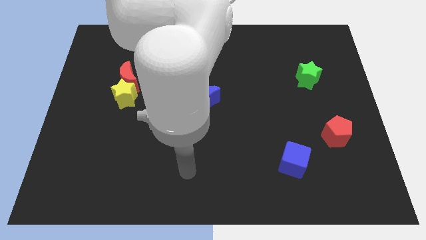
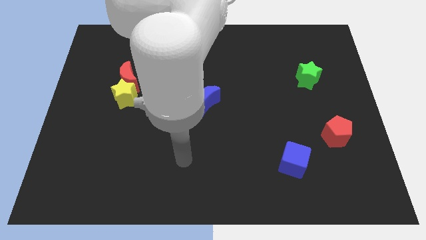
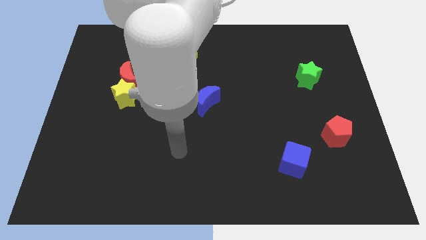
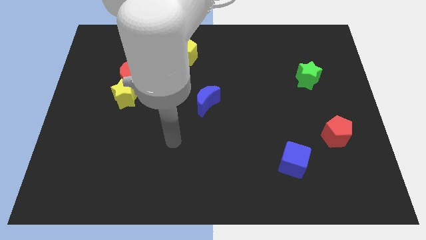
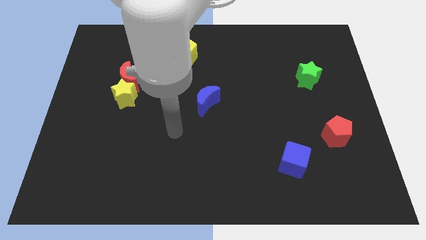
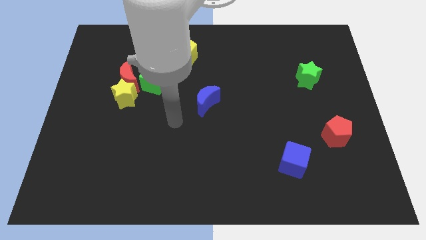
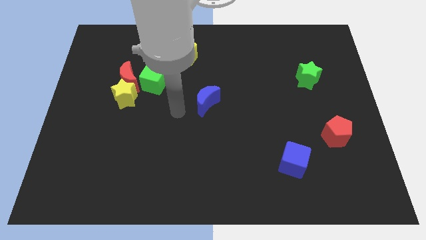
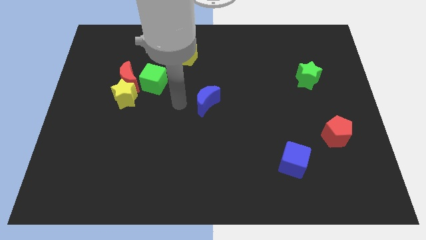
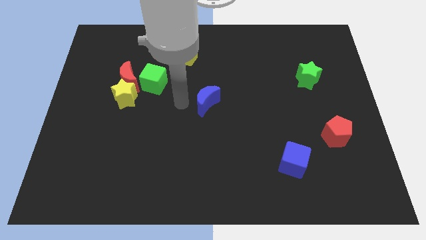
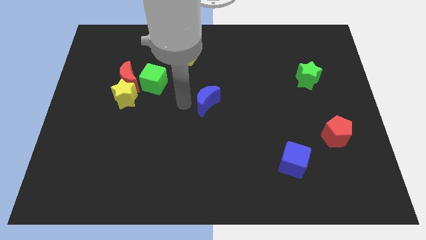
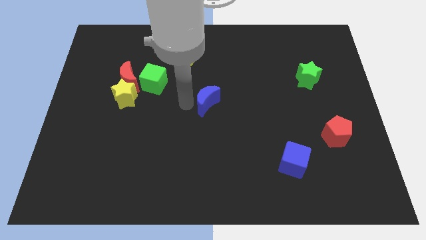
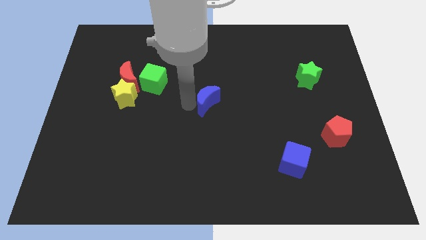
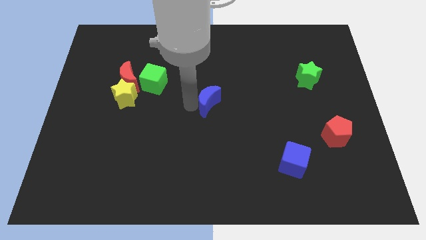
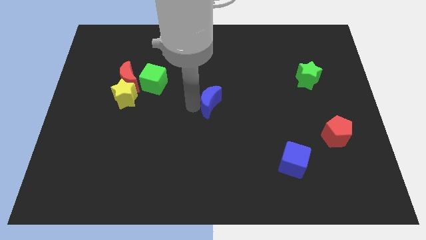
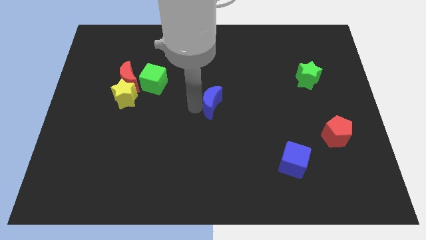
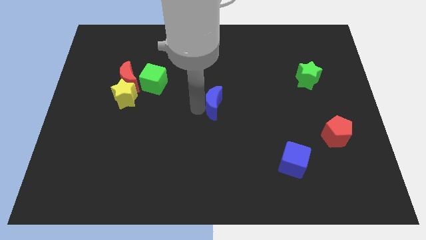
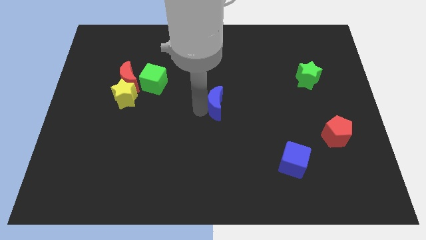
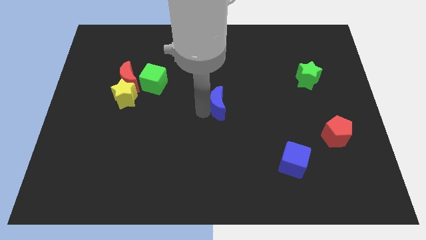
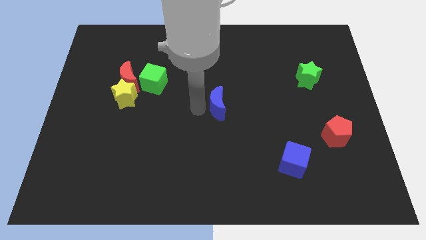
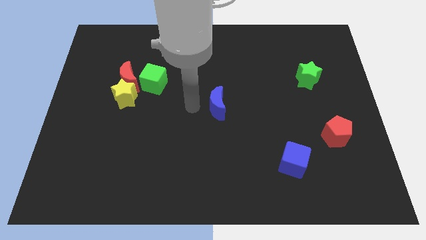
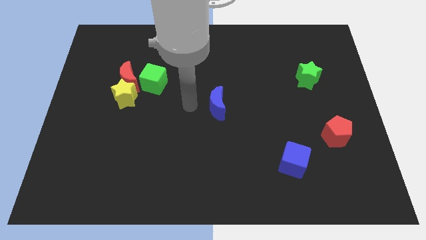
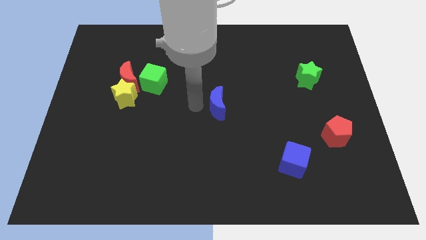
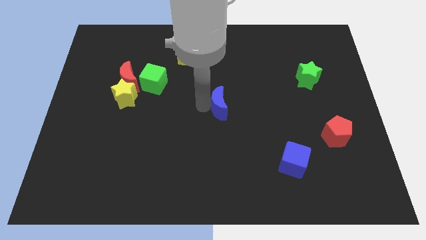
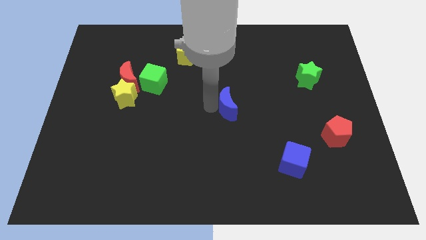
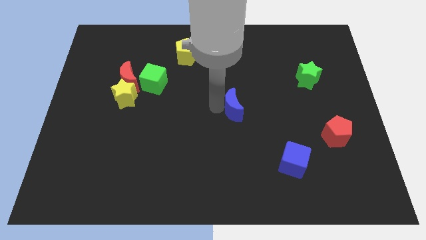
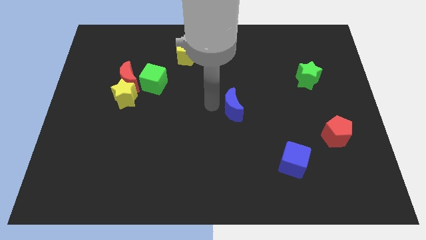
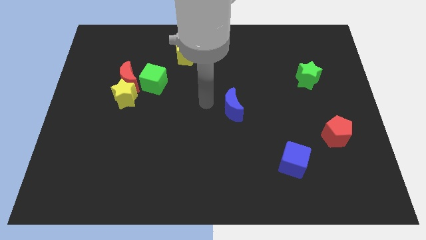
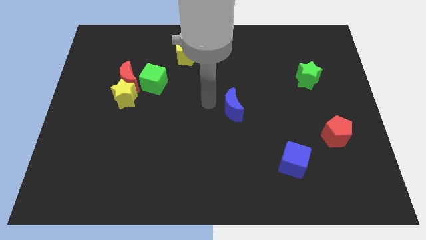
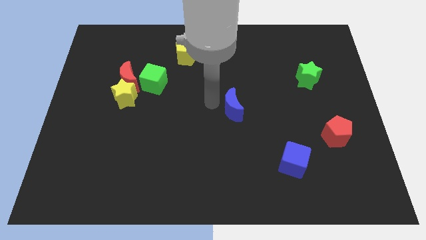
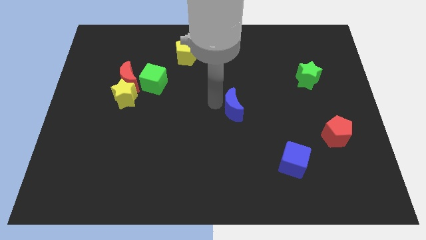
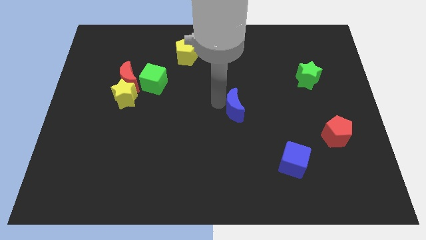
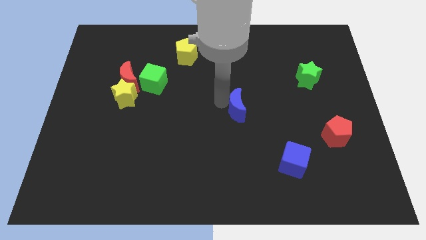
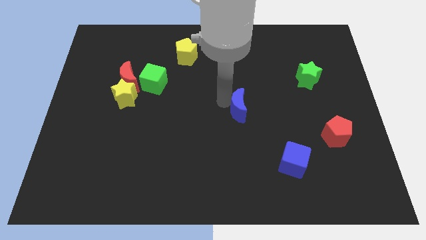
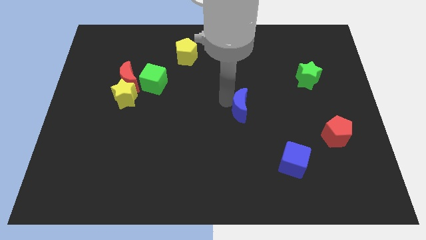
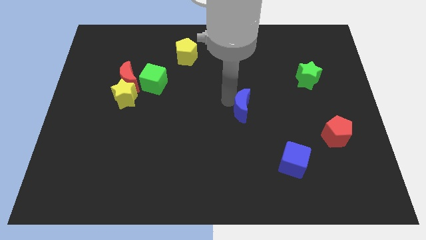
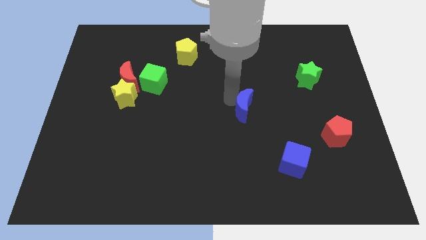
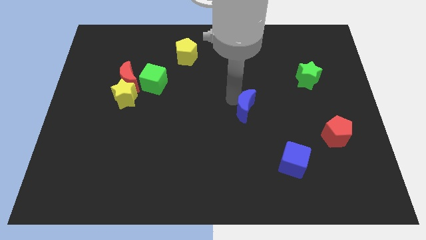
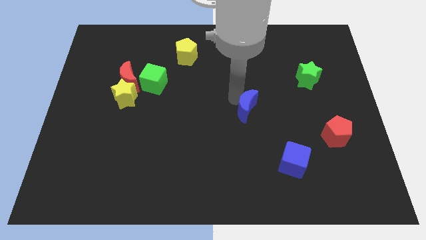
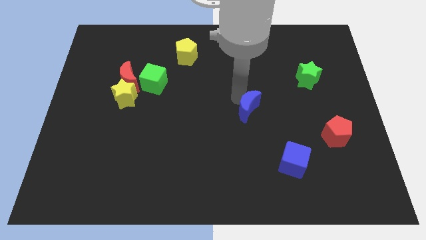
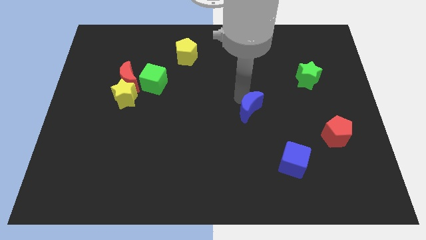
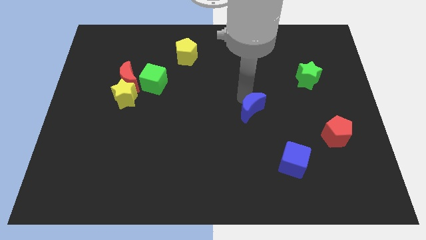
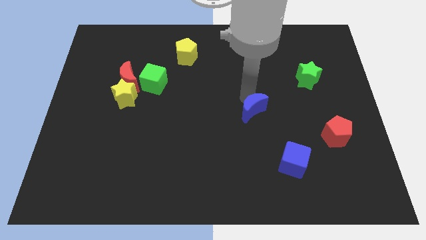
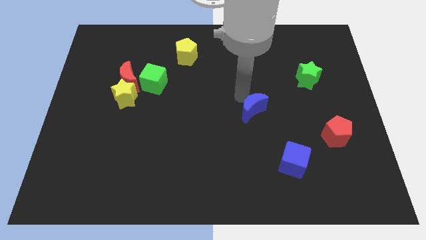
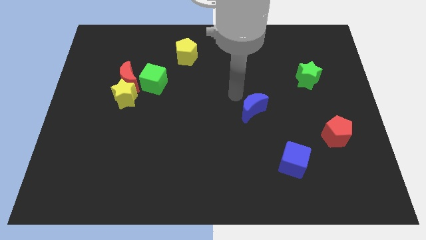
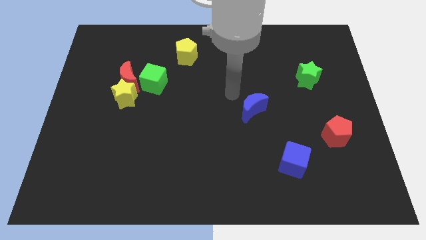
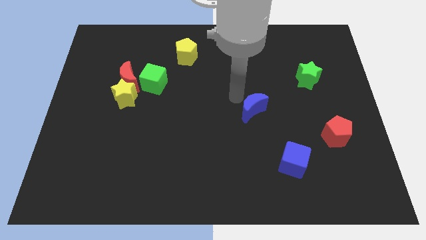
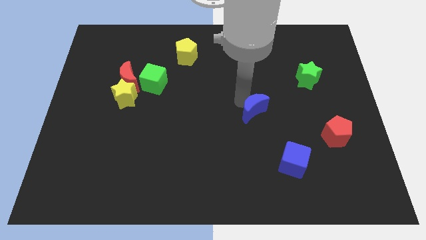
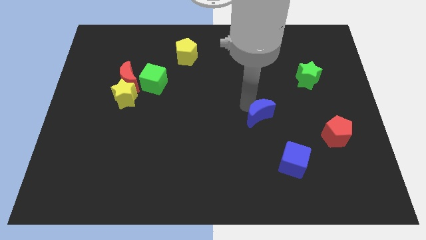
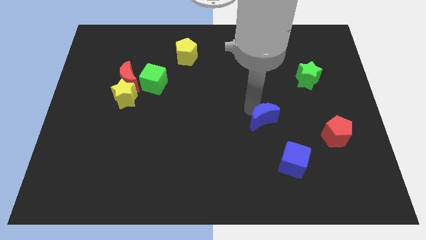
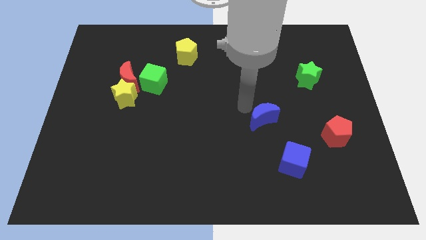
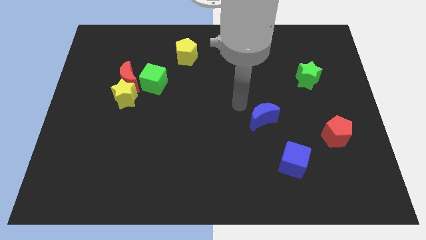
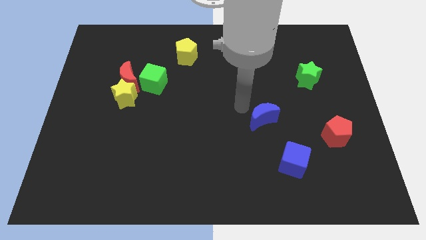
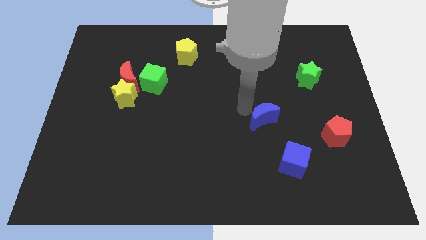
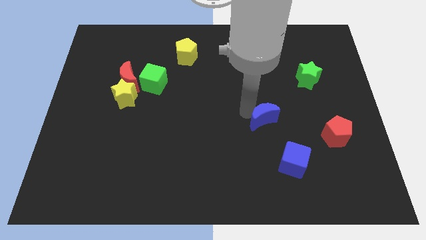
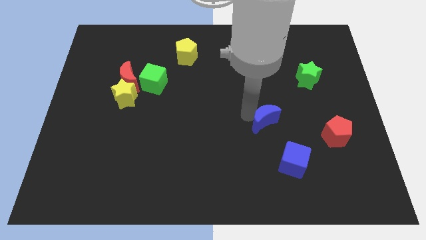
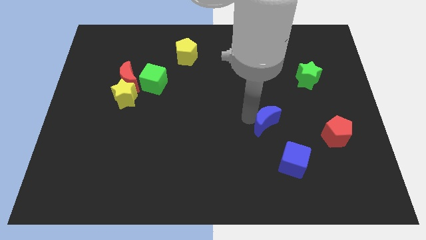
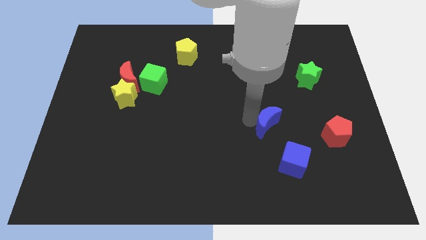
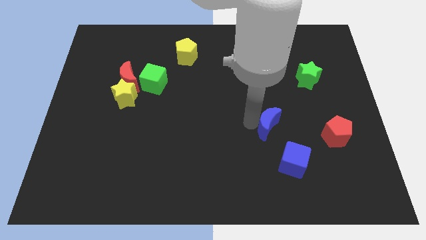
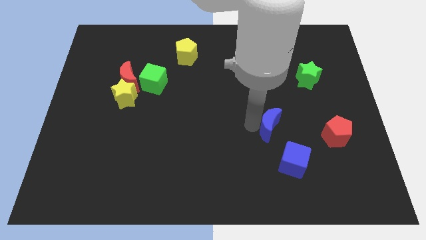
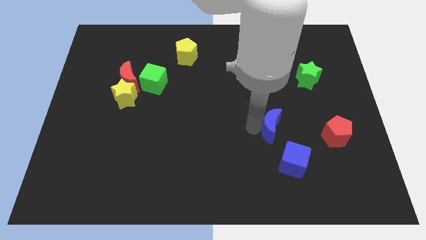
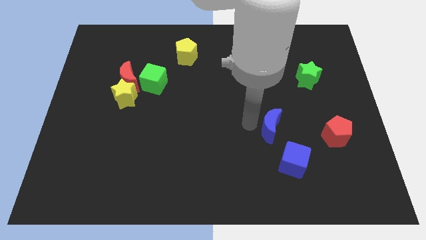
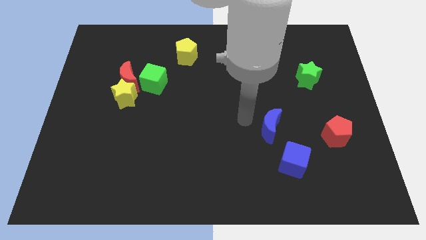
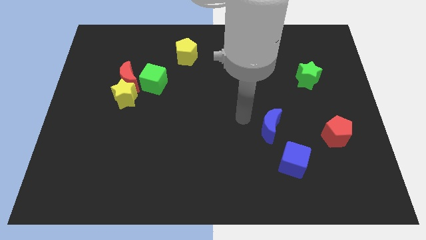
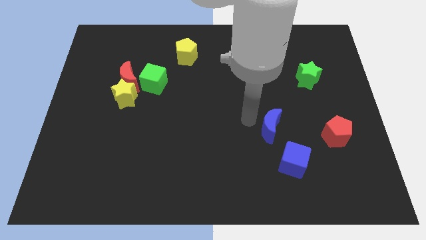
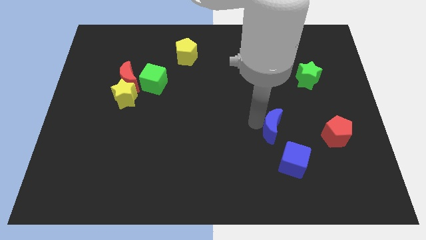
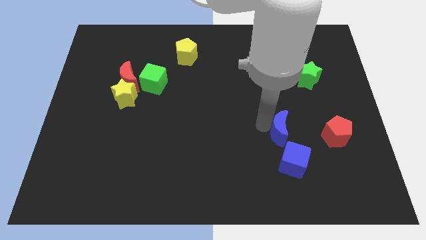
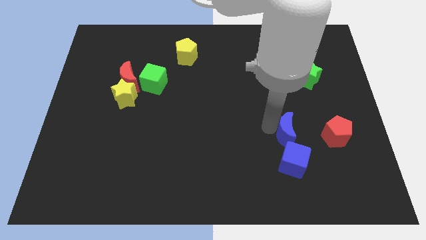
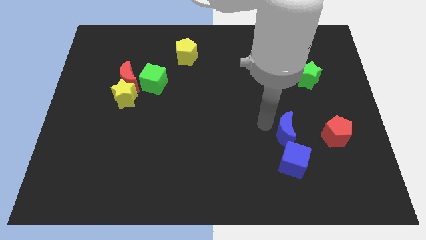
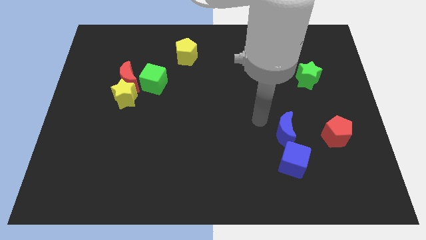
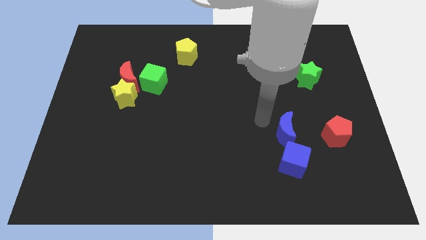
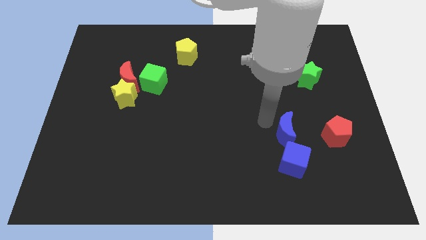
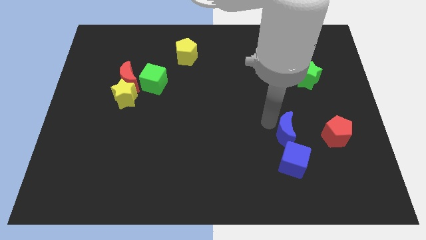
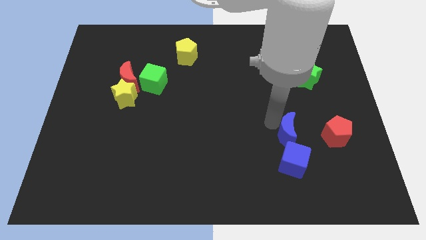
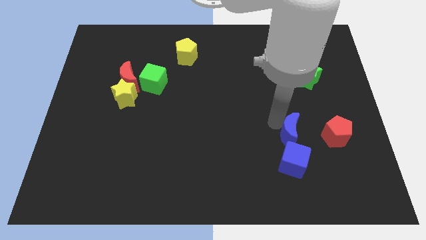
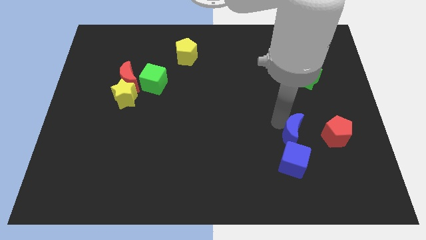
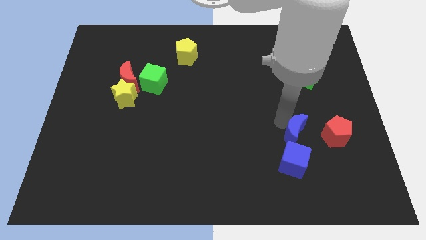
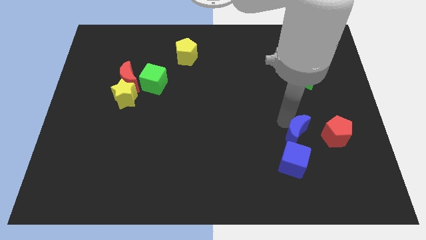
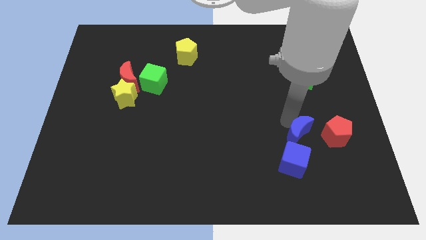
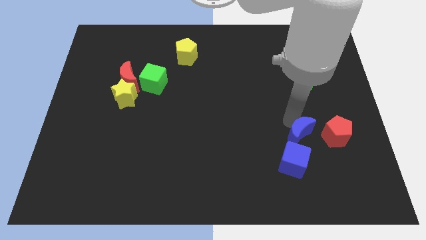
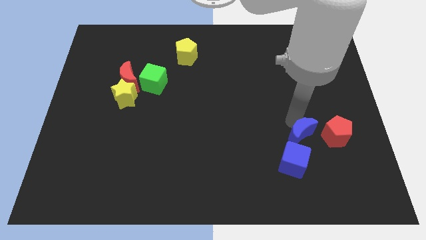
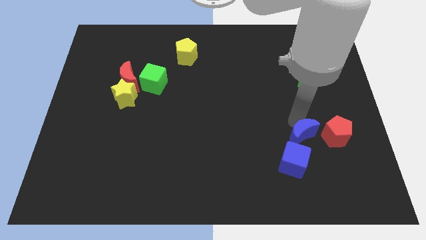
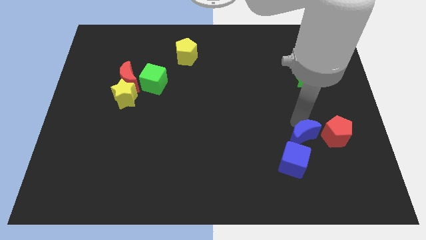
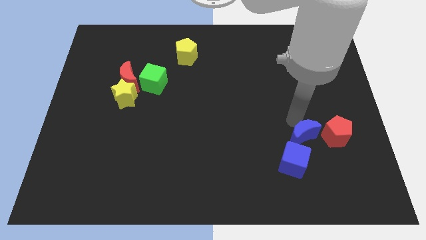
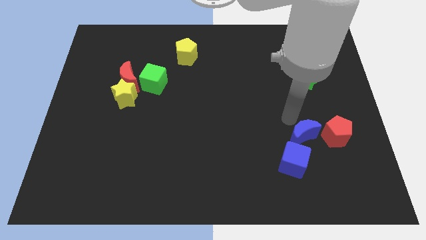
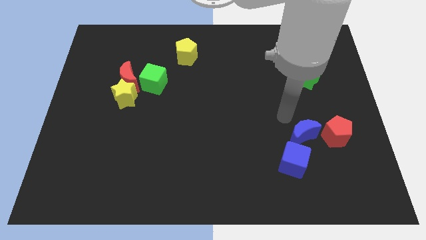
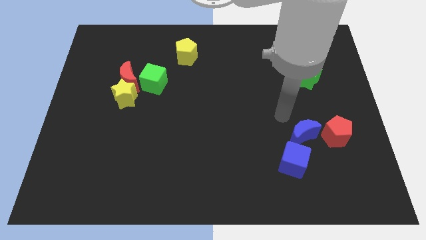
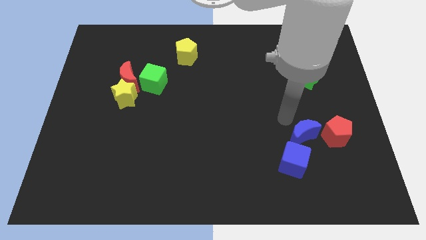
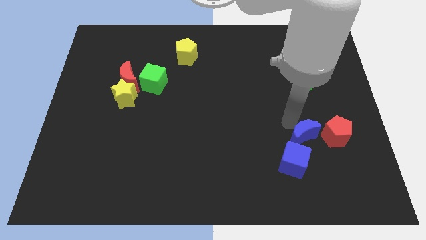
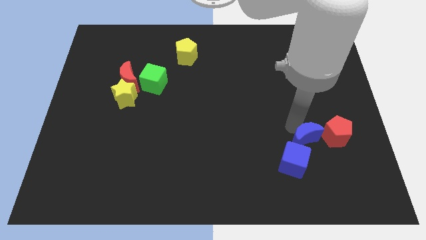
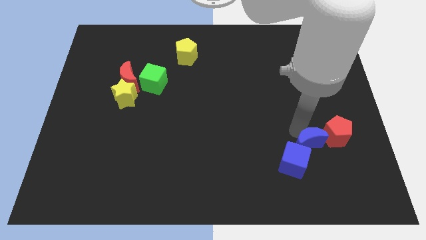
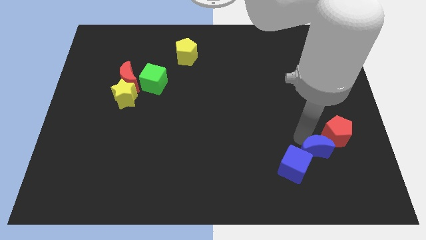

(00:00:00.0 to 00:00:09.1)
push the blue moon to the right of the blue cube
